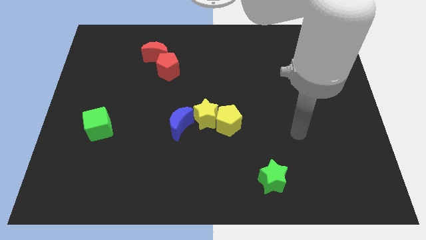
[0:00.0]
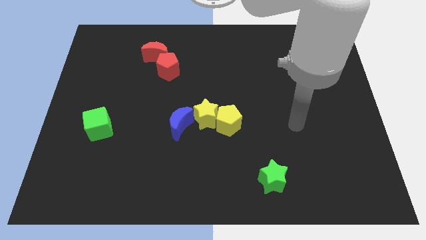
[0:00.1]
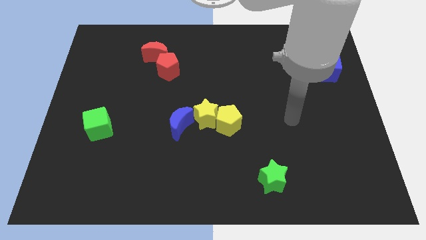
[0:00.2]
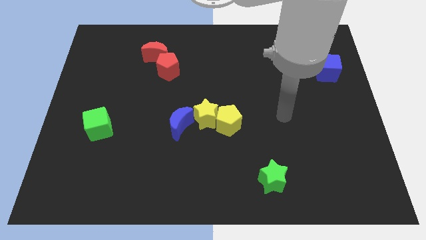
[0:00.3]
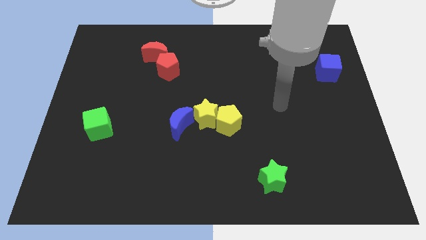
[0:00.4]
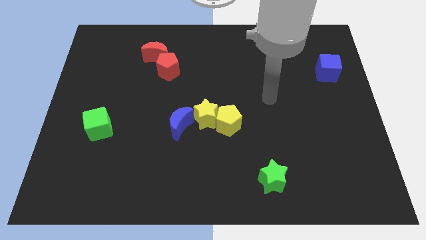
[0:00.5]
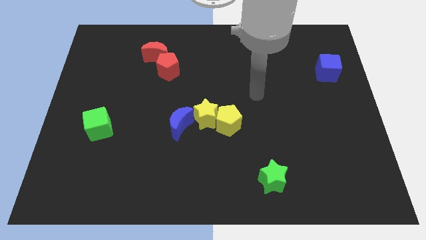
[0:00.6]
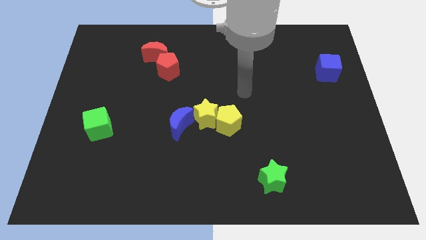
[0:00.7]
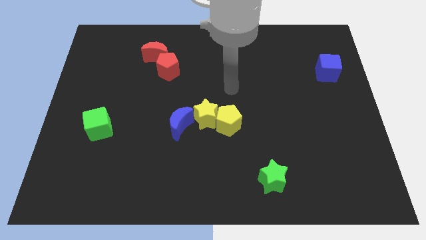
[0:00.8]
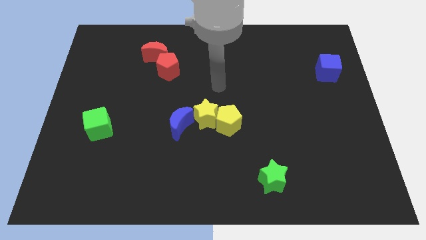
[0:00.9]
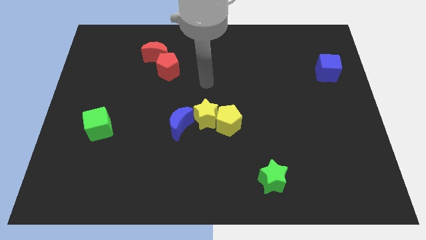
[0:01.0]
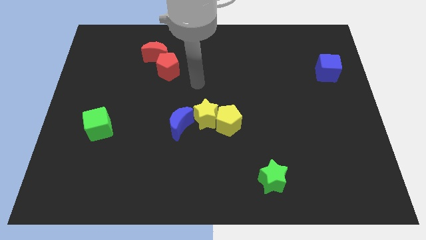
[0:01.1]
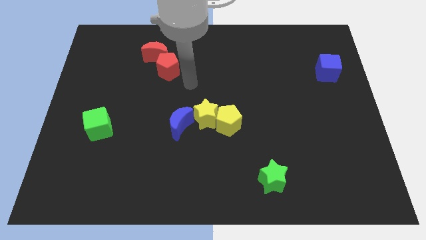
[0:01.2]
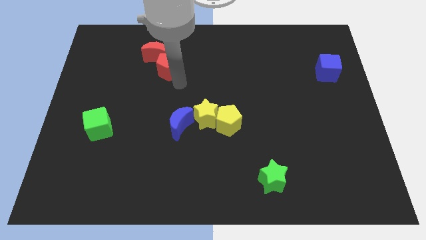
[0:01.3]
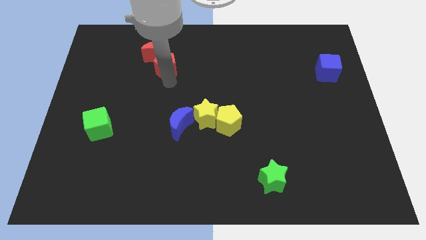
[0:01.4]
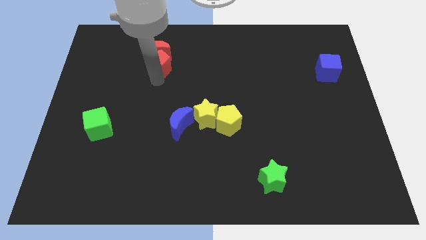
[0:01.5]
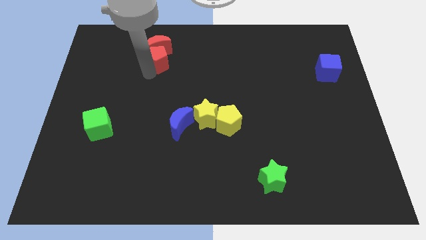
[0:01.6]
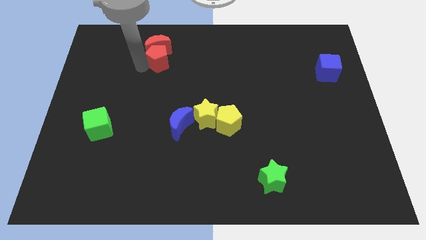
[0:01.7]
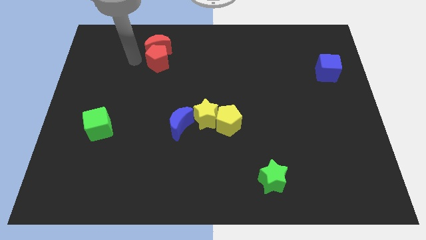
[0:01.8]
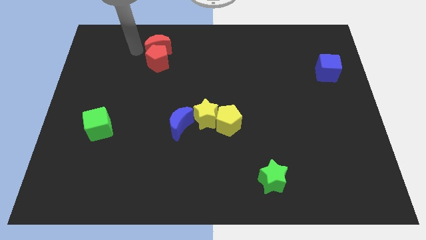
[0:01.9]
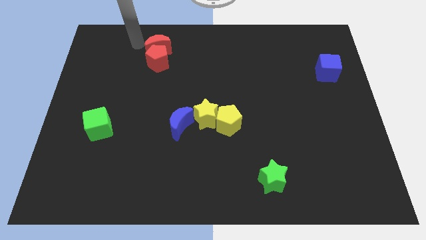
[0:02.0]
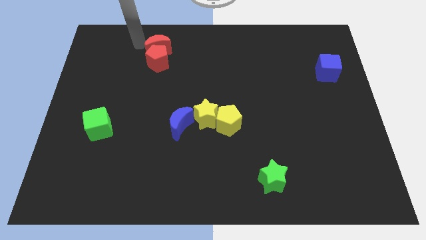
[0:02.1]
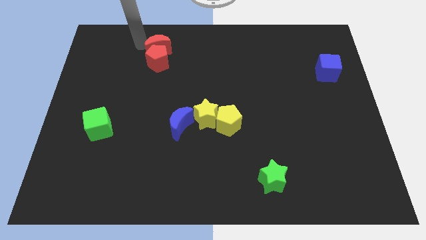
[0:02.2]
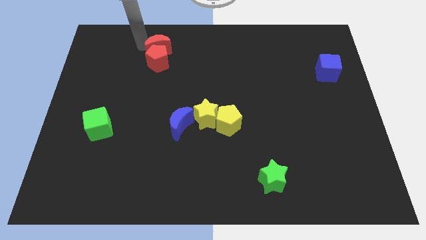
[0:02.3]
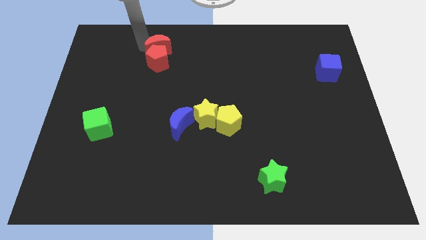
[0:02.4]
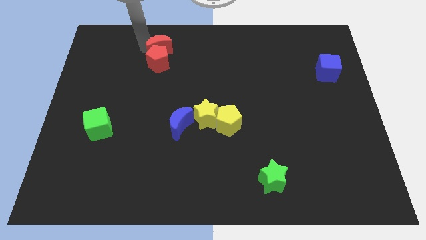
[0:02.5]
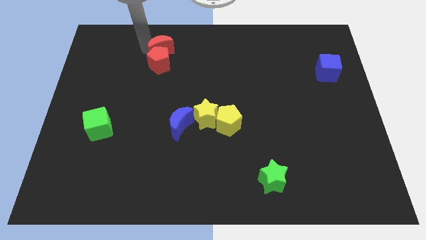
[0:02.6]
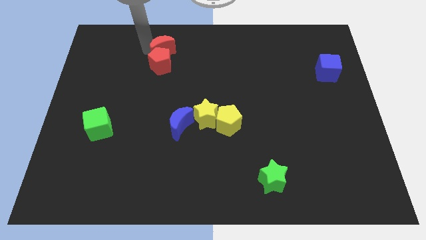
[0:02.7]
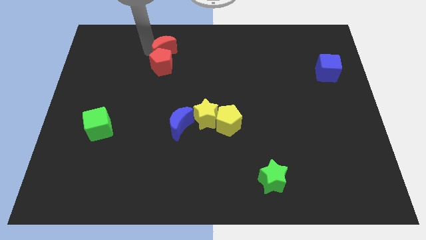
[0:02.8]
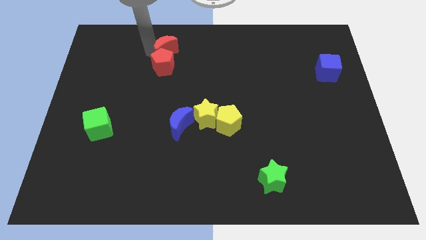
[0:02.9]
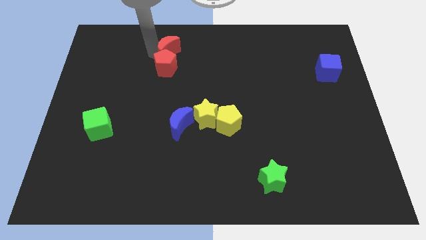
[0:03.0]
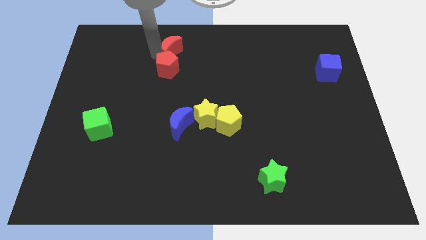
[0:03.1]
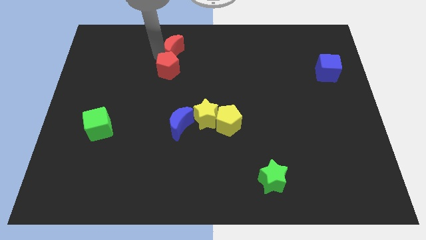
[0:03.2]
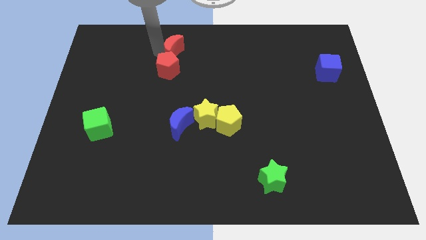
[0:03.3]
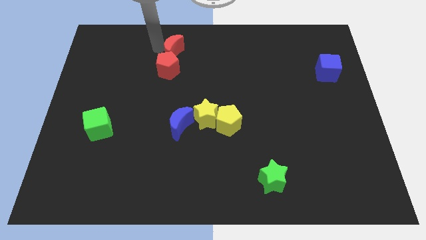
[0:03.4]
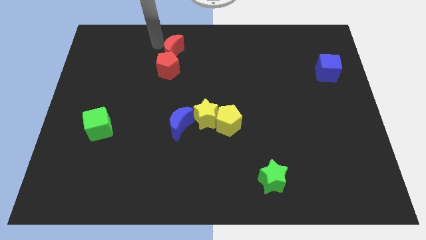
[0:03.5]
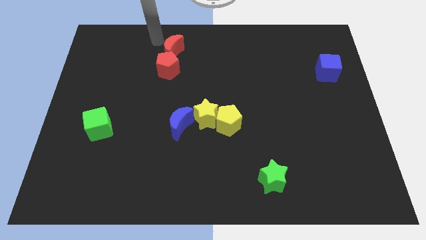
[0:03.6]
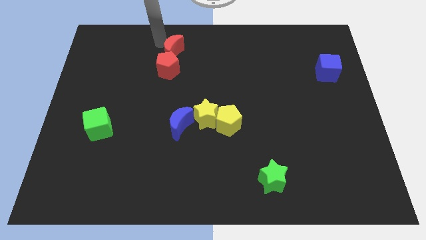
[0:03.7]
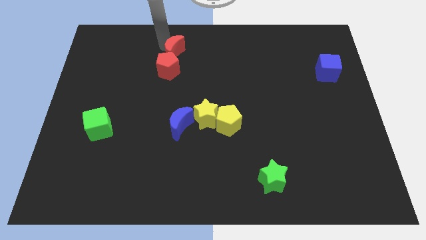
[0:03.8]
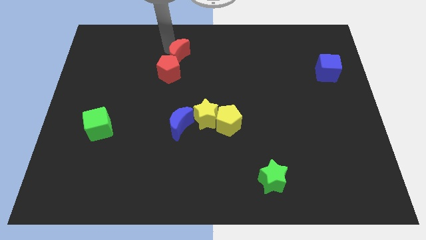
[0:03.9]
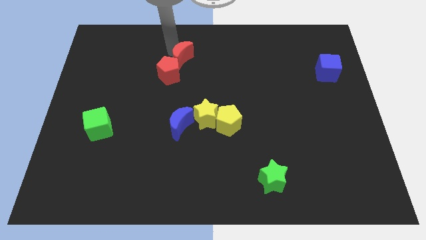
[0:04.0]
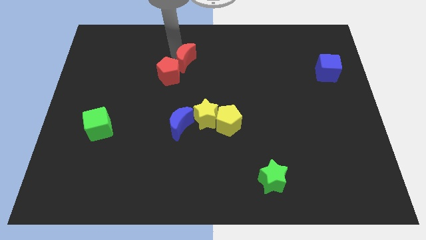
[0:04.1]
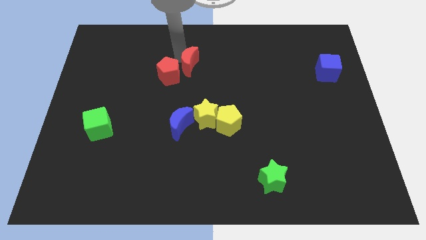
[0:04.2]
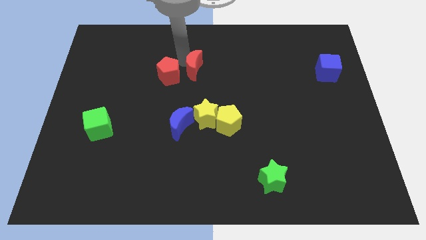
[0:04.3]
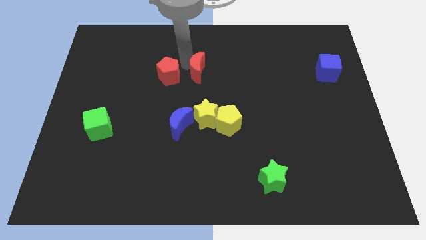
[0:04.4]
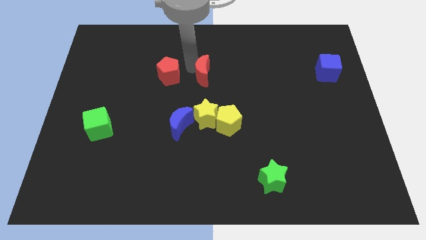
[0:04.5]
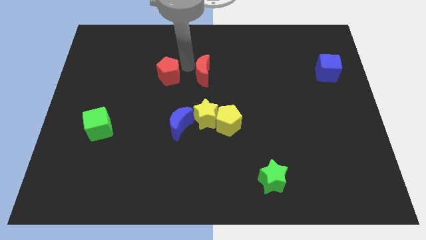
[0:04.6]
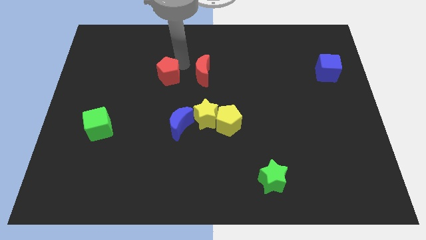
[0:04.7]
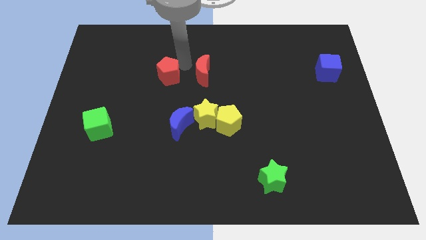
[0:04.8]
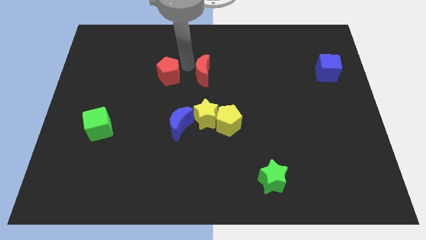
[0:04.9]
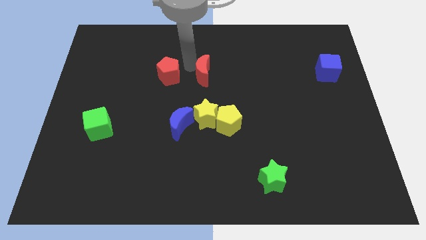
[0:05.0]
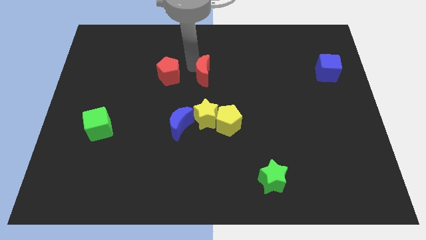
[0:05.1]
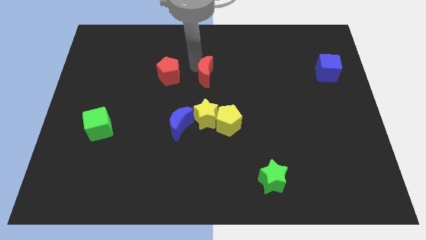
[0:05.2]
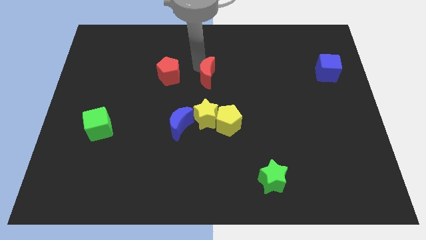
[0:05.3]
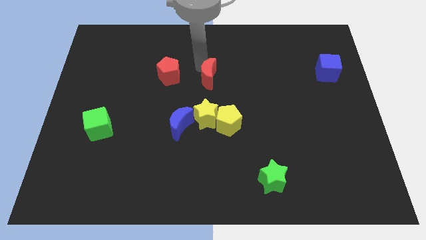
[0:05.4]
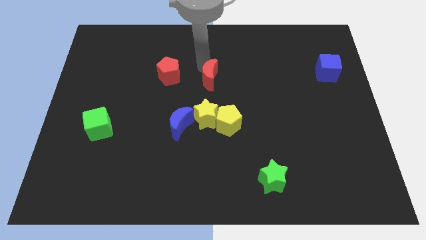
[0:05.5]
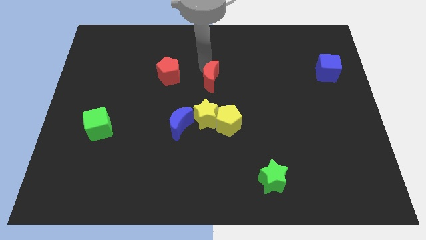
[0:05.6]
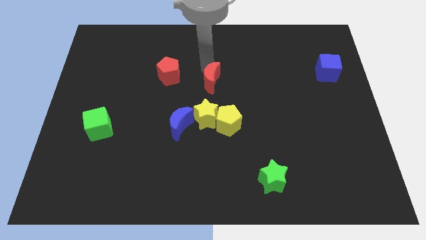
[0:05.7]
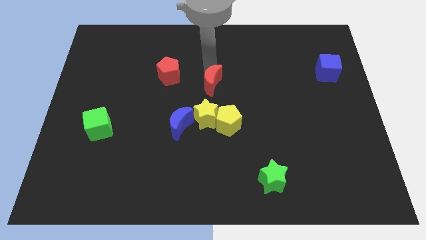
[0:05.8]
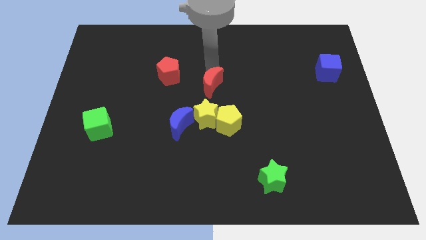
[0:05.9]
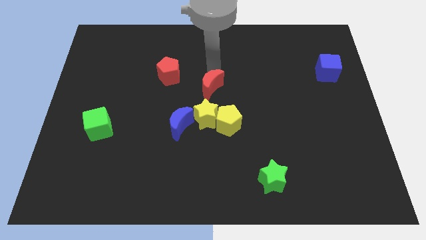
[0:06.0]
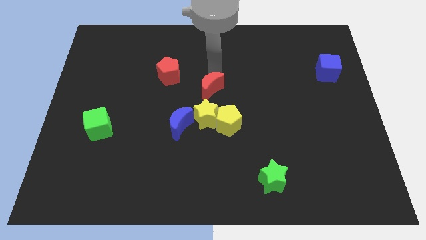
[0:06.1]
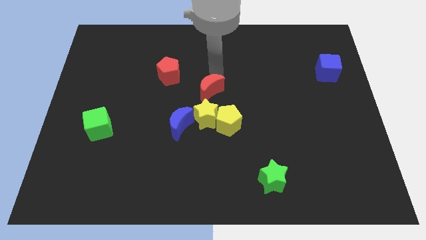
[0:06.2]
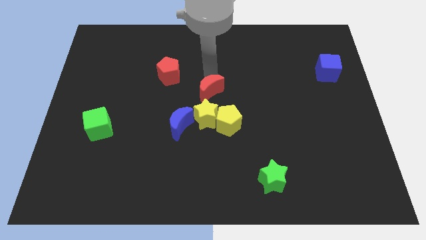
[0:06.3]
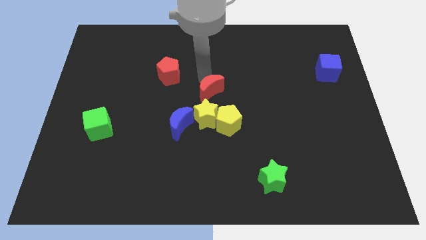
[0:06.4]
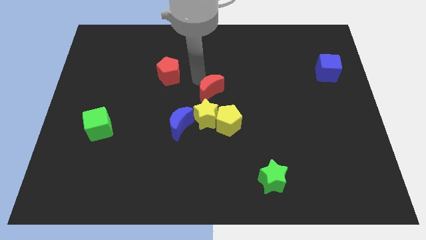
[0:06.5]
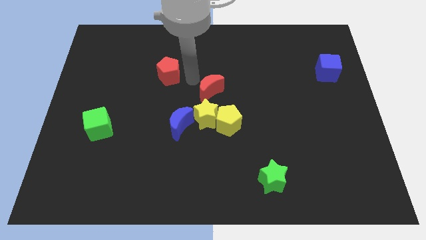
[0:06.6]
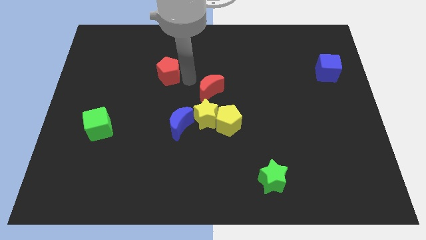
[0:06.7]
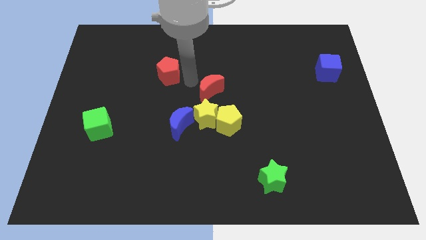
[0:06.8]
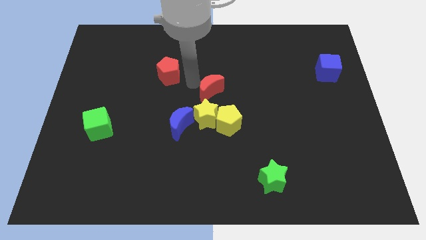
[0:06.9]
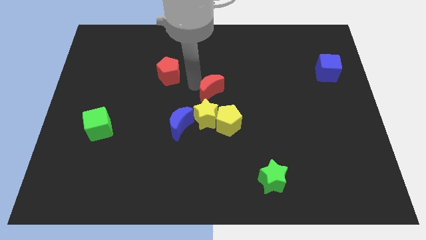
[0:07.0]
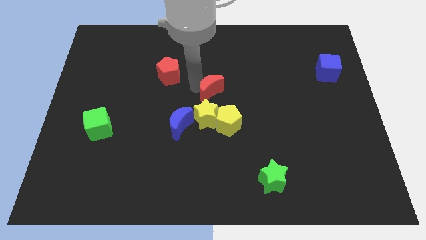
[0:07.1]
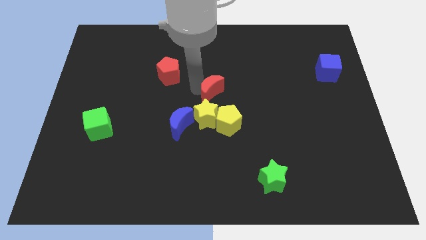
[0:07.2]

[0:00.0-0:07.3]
move the red moon diagonally up and to the right of the yellow star

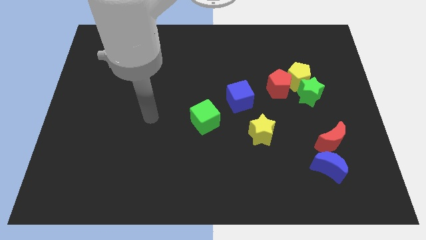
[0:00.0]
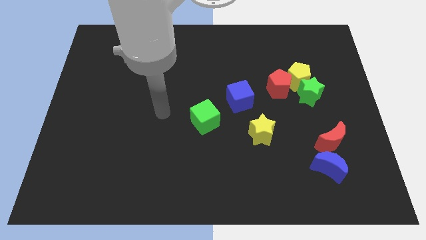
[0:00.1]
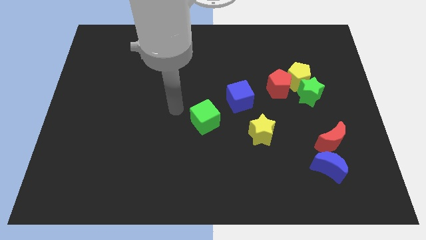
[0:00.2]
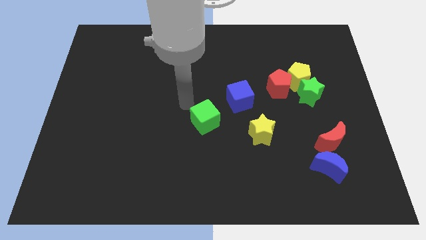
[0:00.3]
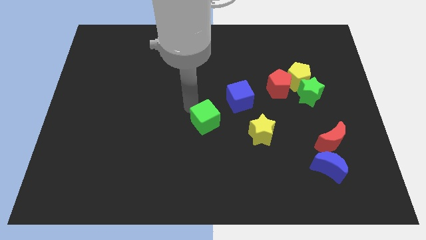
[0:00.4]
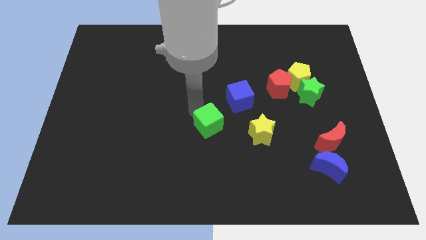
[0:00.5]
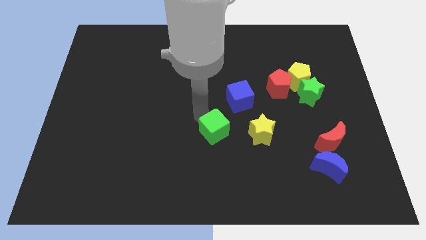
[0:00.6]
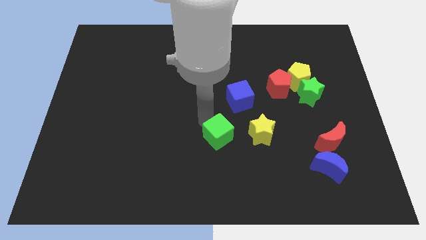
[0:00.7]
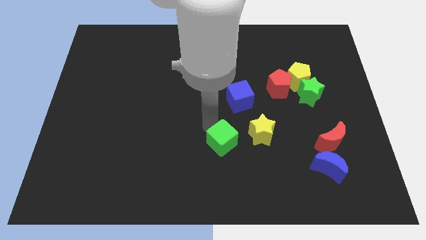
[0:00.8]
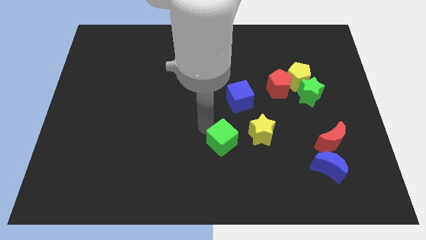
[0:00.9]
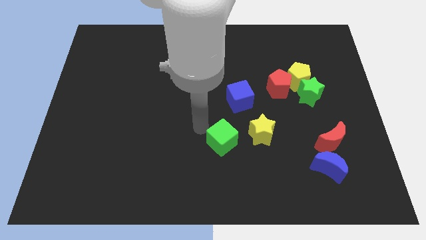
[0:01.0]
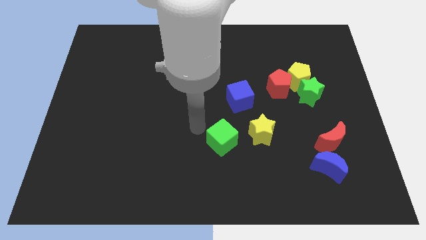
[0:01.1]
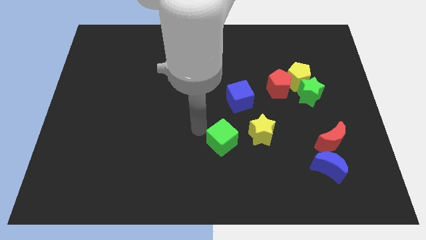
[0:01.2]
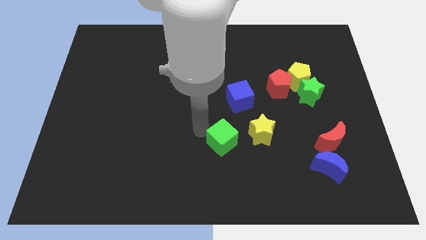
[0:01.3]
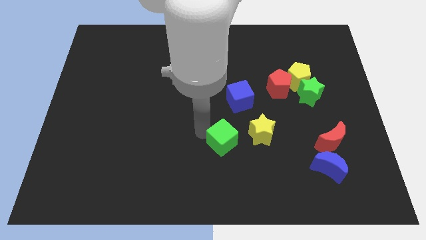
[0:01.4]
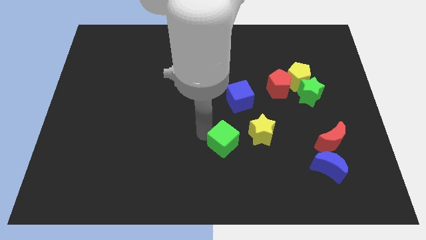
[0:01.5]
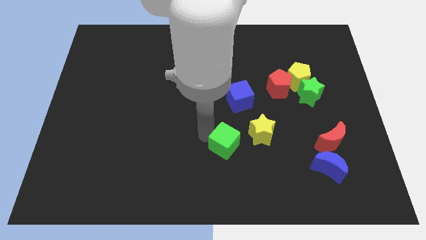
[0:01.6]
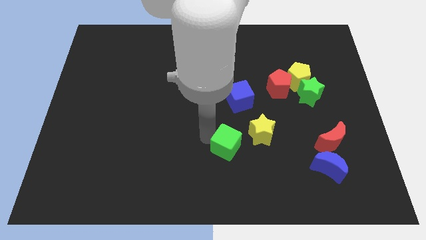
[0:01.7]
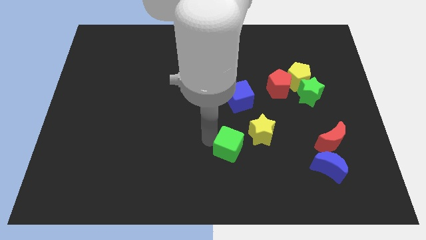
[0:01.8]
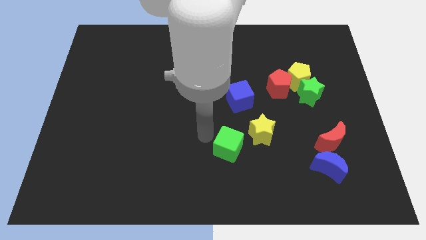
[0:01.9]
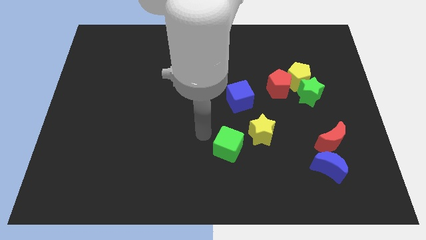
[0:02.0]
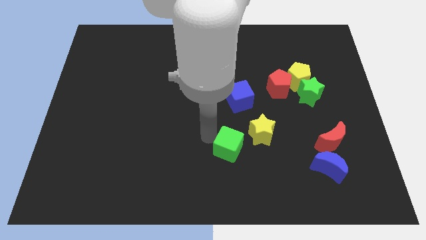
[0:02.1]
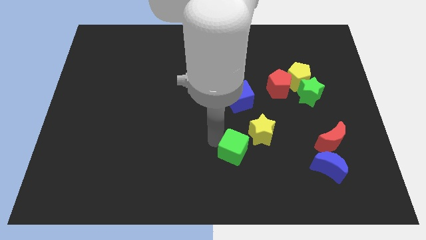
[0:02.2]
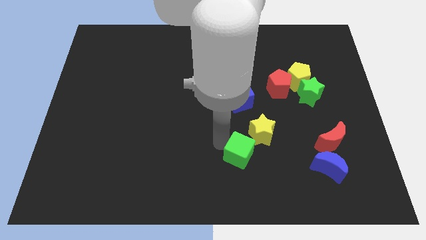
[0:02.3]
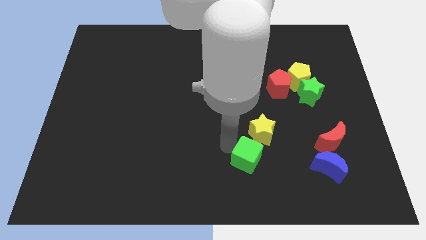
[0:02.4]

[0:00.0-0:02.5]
push the green cube to the bottom side of the yellow star
